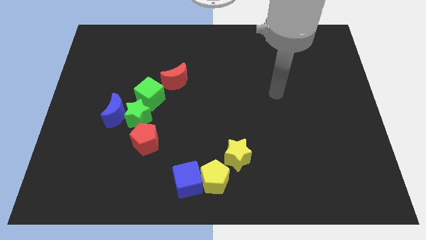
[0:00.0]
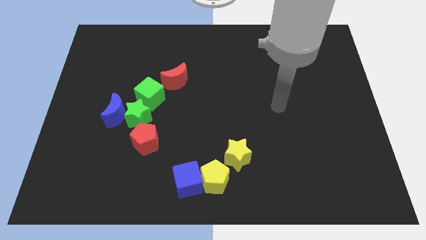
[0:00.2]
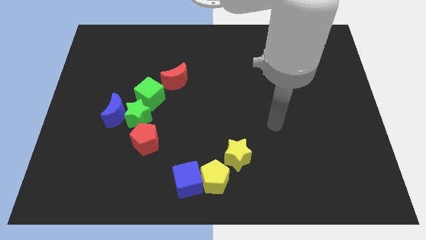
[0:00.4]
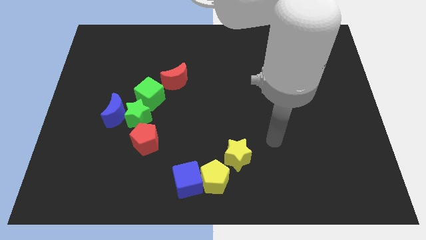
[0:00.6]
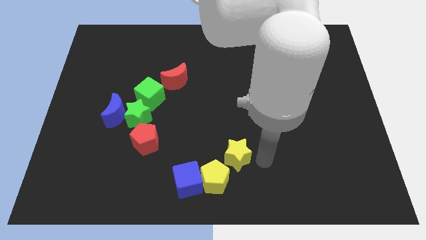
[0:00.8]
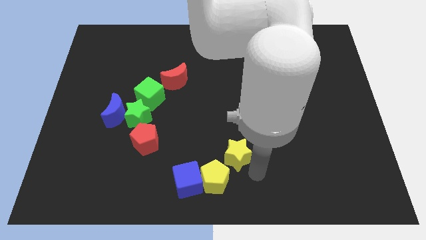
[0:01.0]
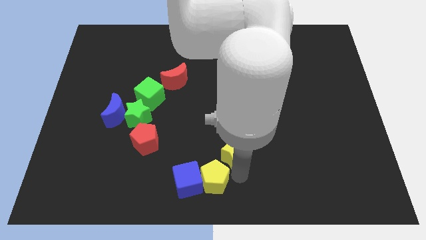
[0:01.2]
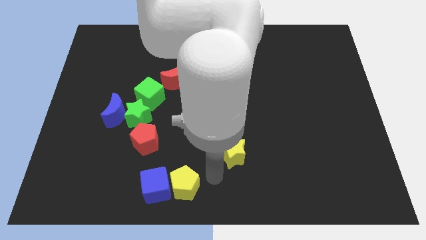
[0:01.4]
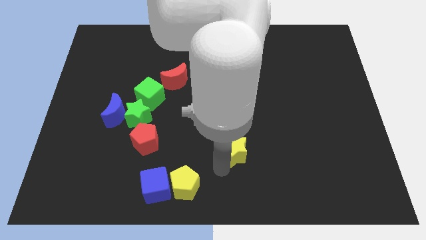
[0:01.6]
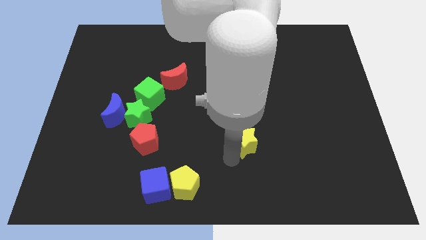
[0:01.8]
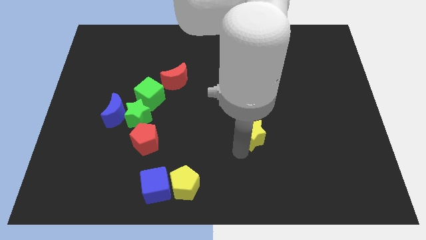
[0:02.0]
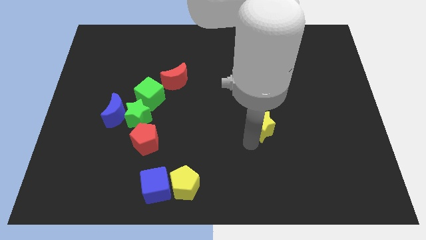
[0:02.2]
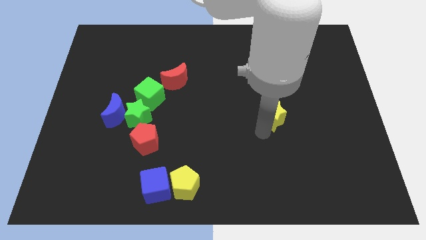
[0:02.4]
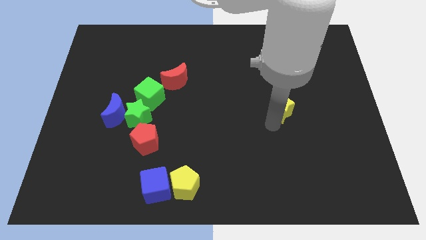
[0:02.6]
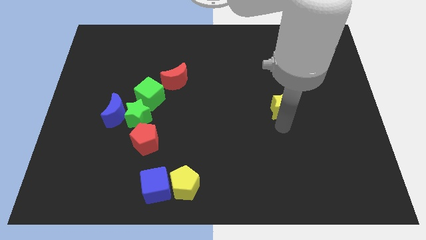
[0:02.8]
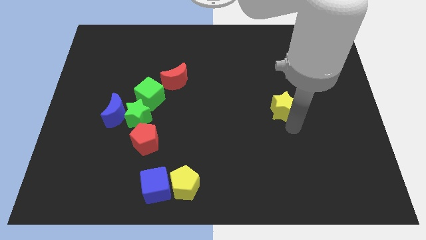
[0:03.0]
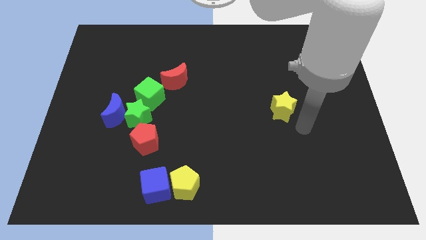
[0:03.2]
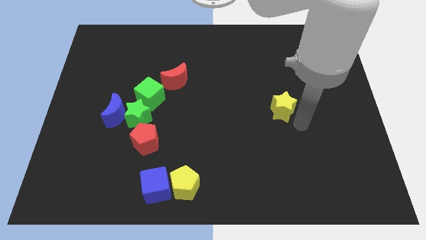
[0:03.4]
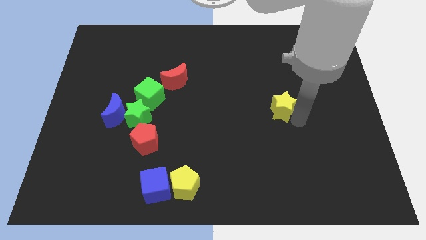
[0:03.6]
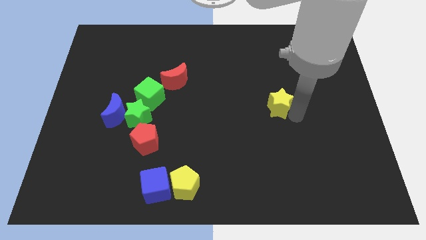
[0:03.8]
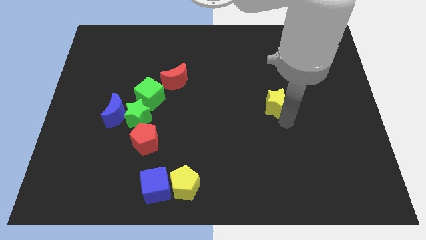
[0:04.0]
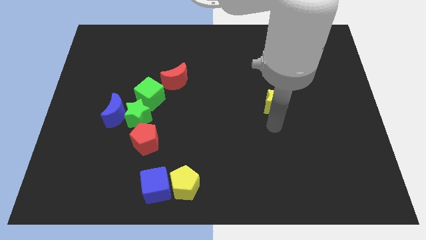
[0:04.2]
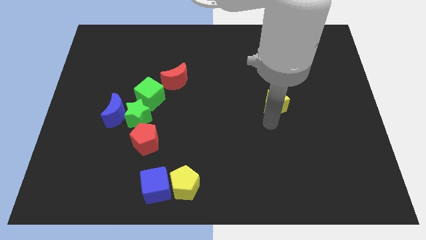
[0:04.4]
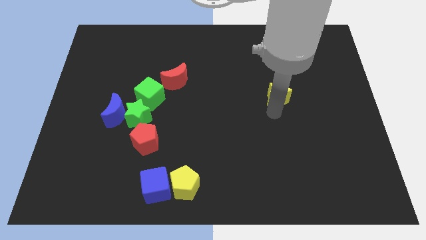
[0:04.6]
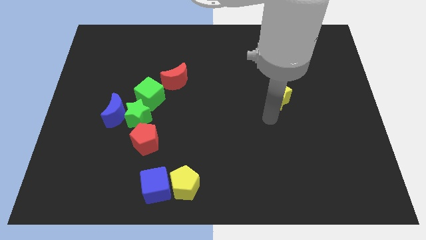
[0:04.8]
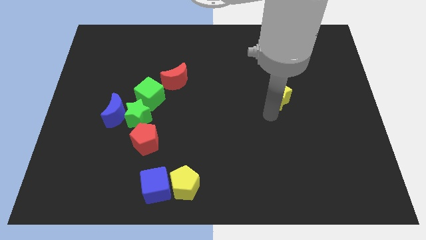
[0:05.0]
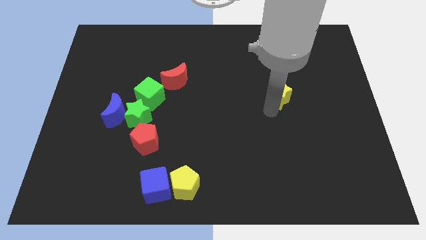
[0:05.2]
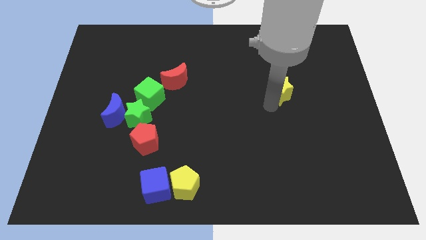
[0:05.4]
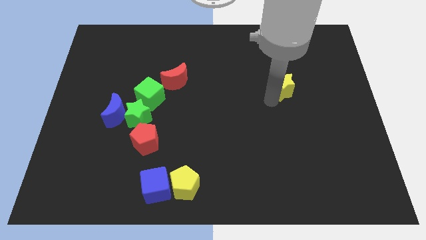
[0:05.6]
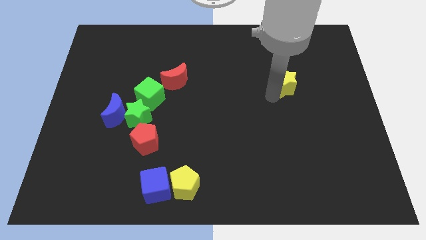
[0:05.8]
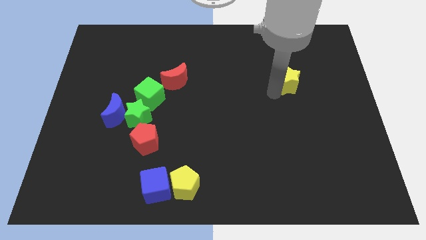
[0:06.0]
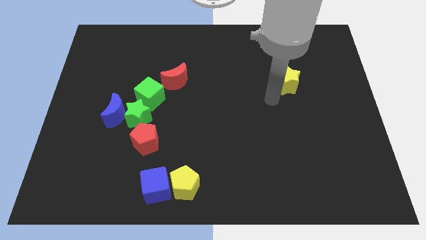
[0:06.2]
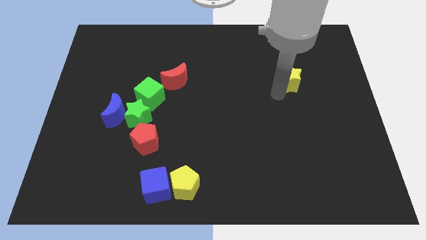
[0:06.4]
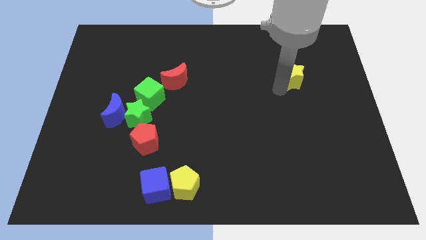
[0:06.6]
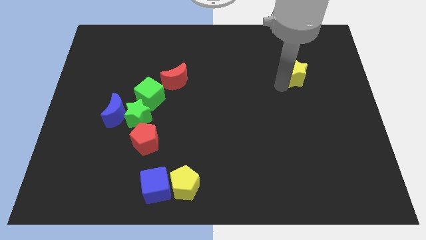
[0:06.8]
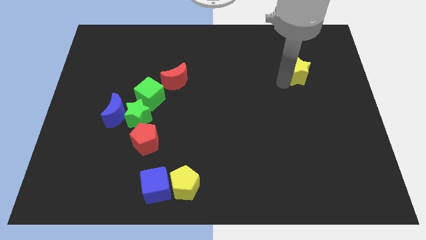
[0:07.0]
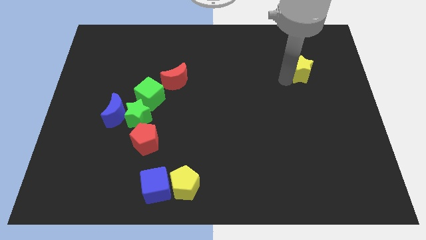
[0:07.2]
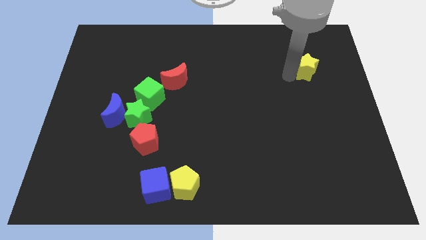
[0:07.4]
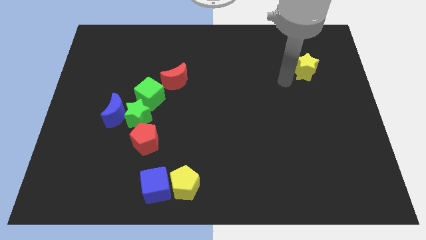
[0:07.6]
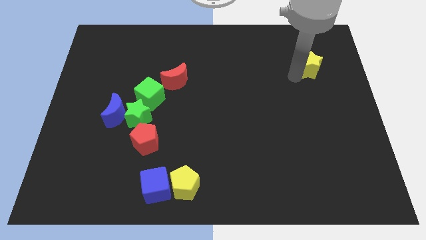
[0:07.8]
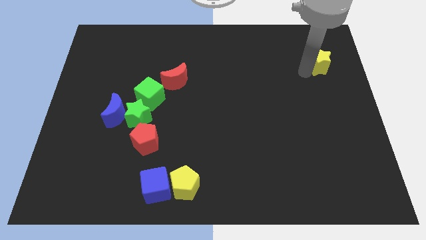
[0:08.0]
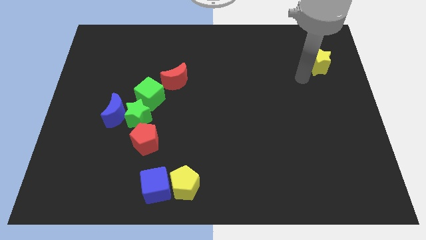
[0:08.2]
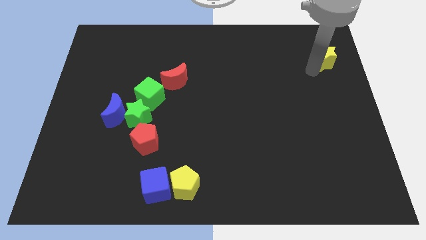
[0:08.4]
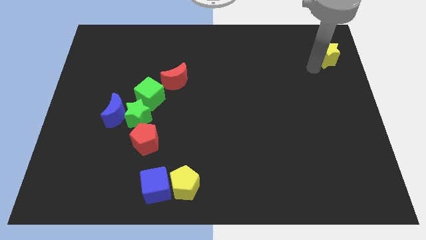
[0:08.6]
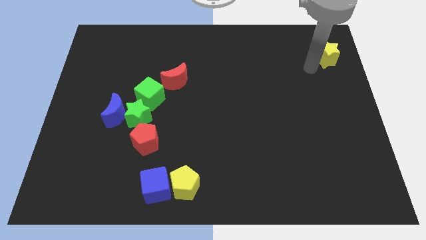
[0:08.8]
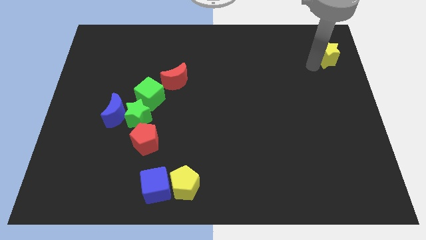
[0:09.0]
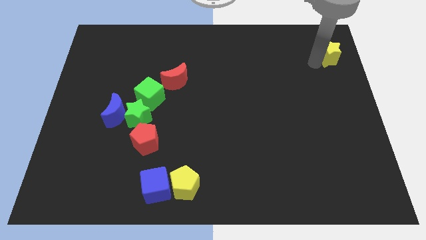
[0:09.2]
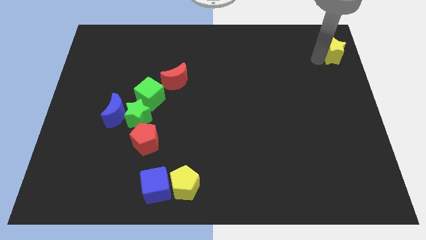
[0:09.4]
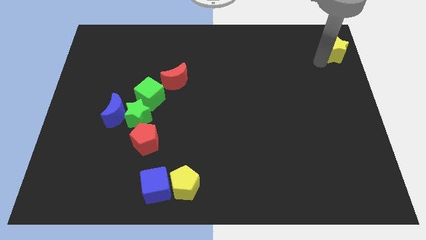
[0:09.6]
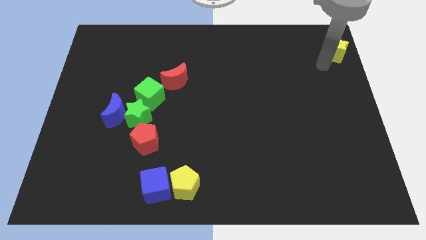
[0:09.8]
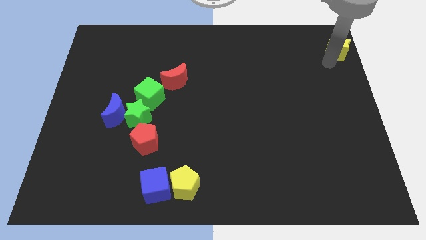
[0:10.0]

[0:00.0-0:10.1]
put the yellow star to the top right corner
